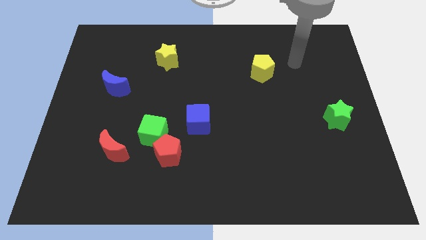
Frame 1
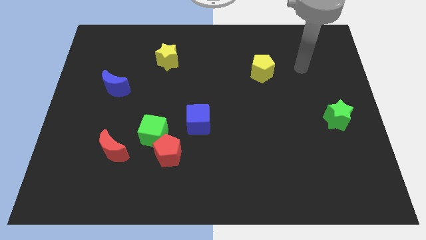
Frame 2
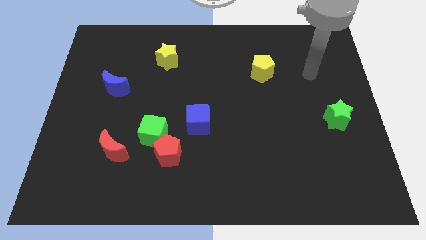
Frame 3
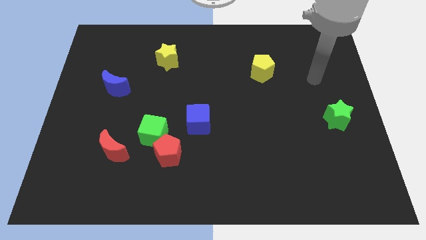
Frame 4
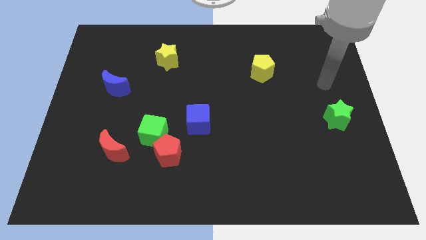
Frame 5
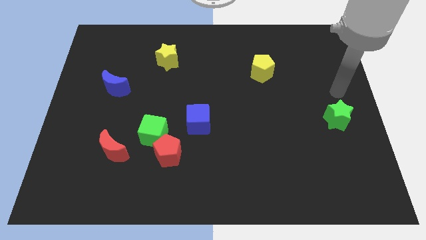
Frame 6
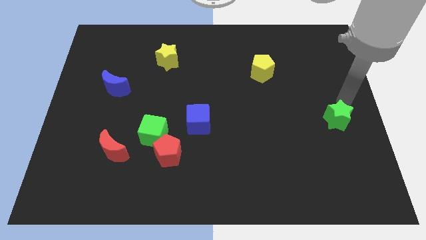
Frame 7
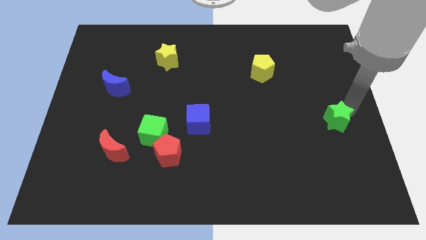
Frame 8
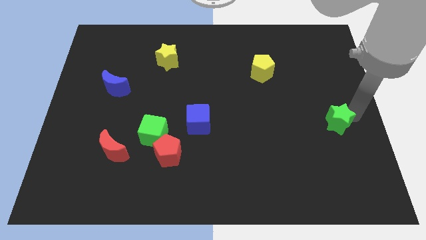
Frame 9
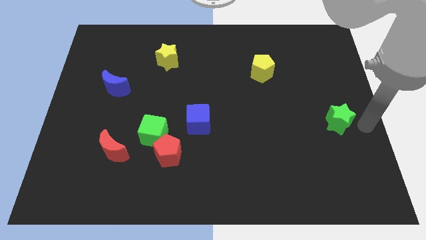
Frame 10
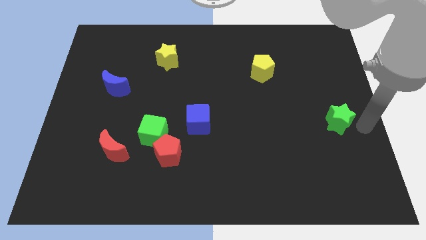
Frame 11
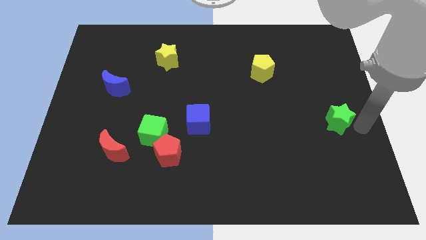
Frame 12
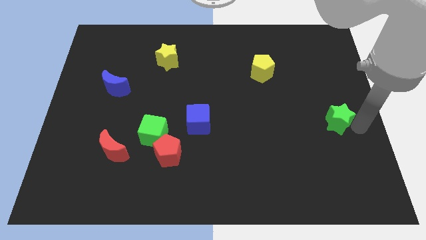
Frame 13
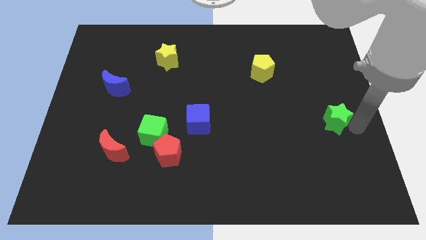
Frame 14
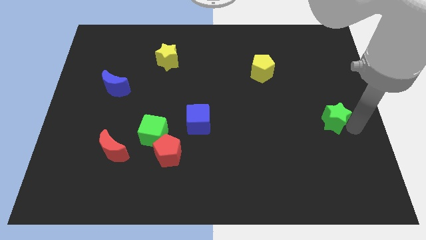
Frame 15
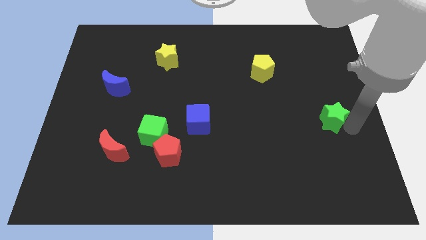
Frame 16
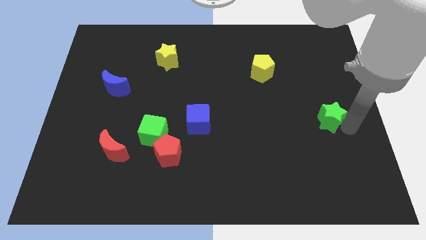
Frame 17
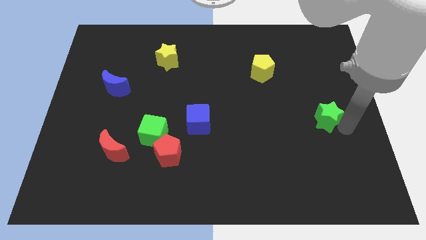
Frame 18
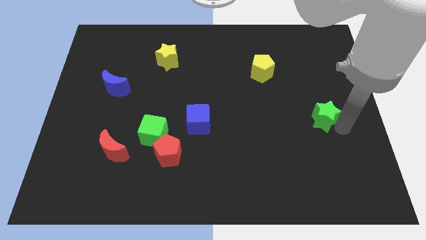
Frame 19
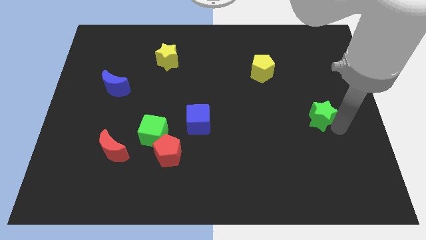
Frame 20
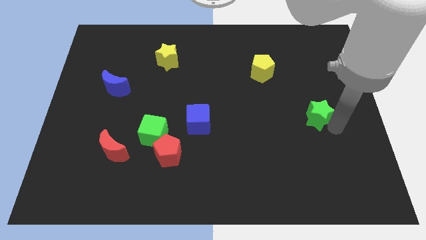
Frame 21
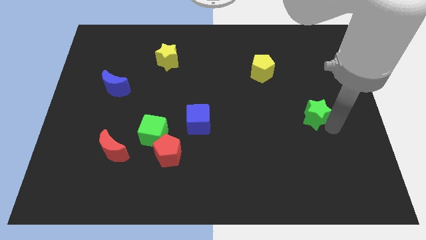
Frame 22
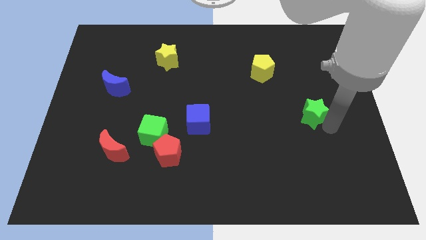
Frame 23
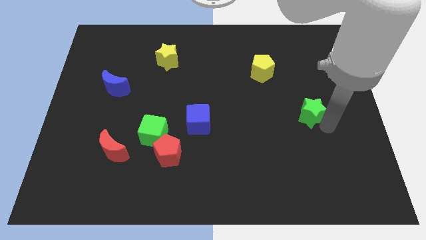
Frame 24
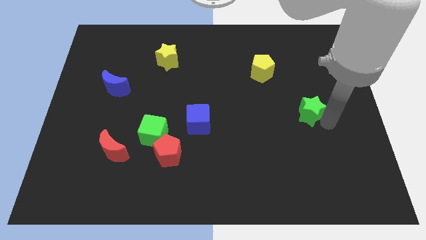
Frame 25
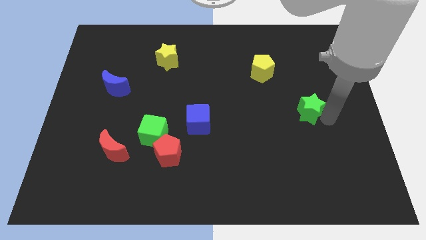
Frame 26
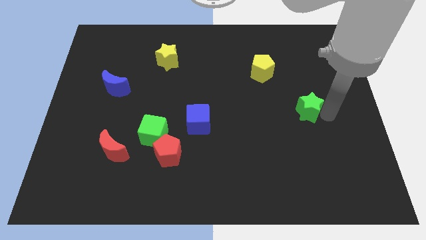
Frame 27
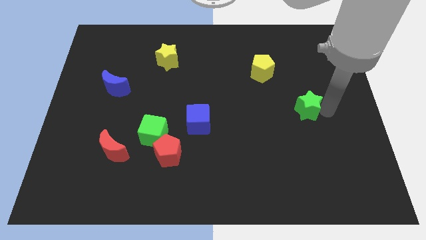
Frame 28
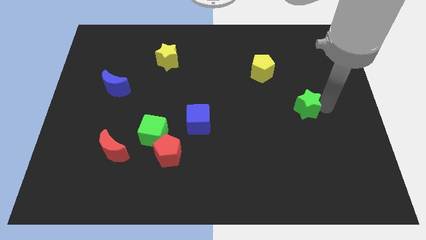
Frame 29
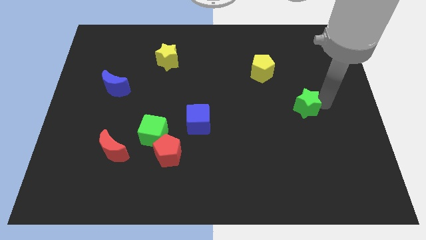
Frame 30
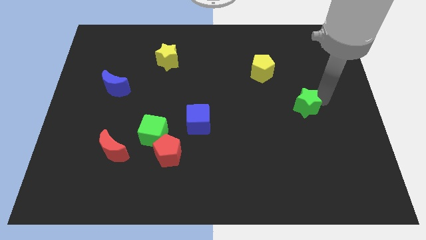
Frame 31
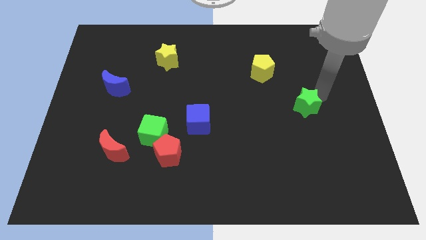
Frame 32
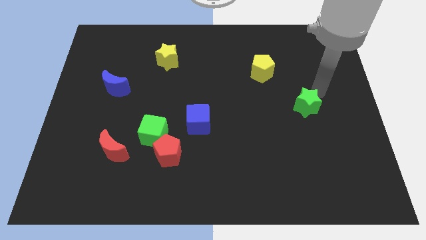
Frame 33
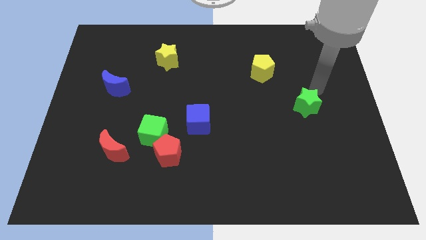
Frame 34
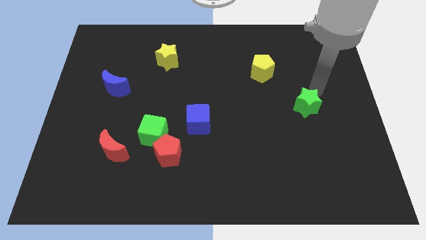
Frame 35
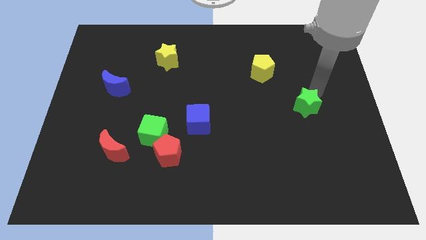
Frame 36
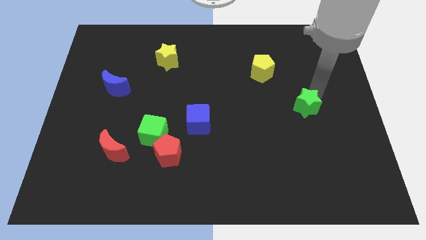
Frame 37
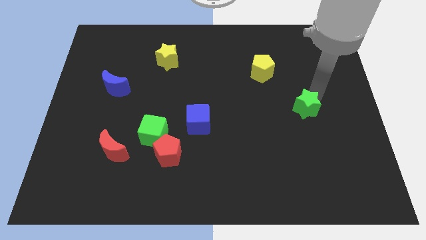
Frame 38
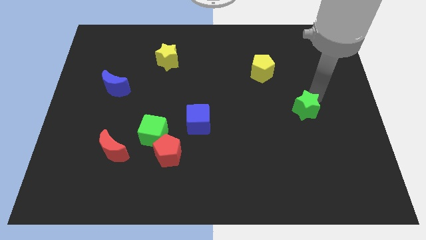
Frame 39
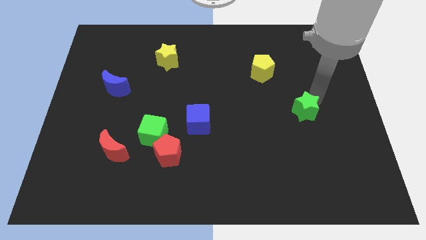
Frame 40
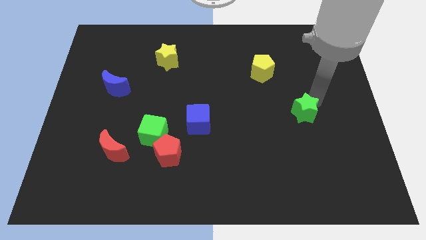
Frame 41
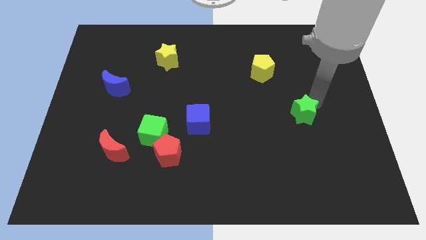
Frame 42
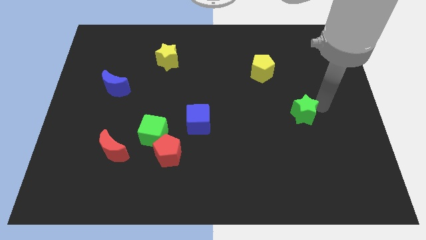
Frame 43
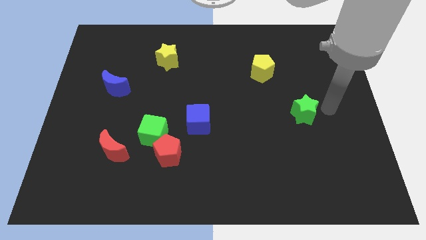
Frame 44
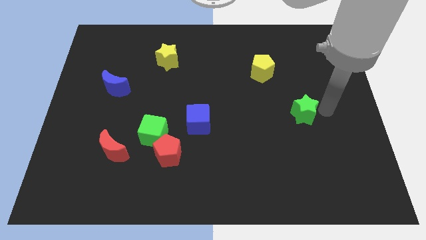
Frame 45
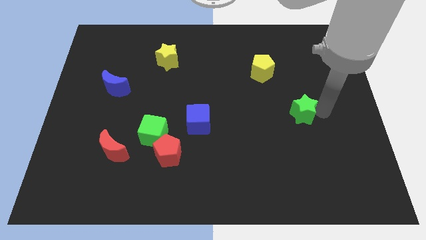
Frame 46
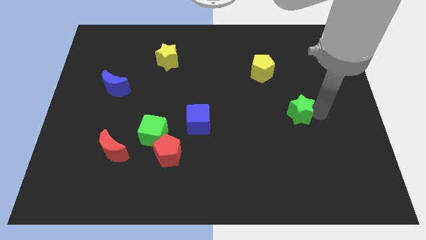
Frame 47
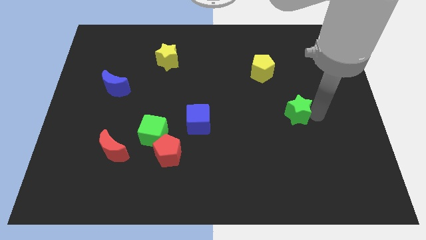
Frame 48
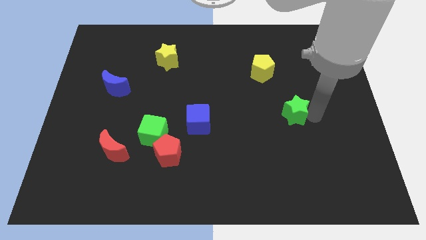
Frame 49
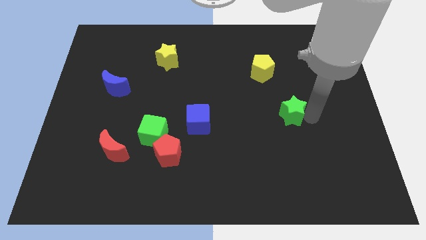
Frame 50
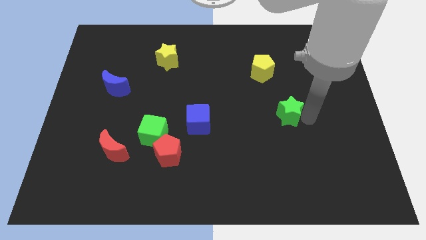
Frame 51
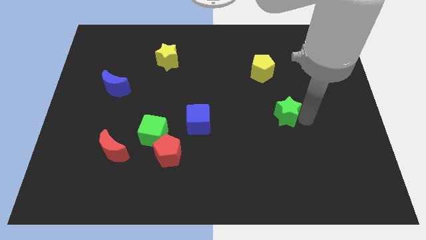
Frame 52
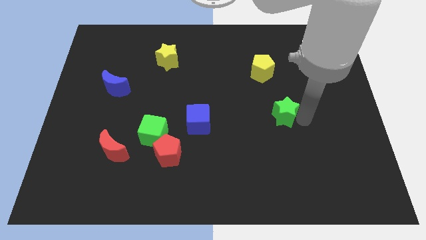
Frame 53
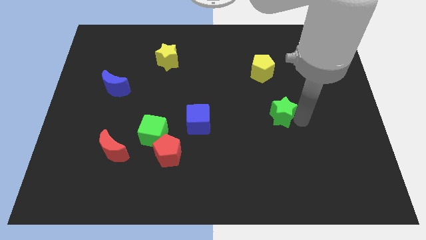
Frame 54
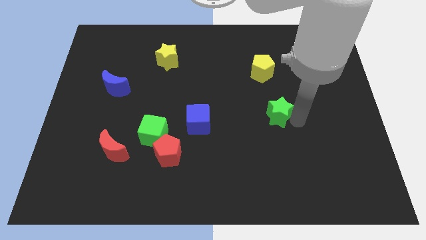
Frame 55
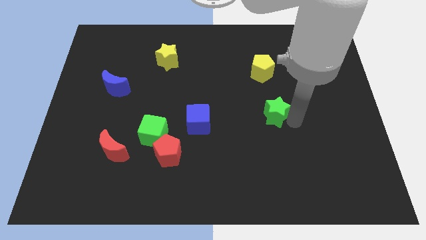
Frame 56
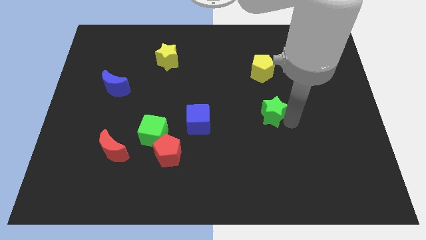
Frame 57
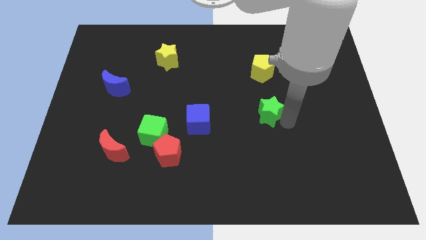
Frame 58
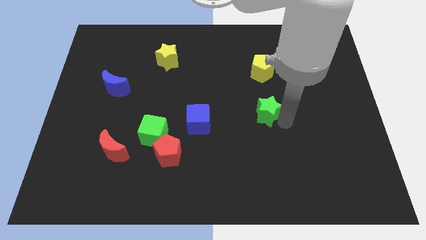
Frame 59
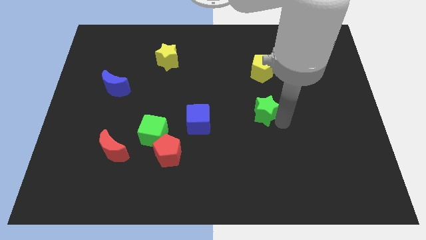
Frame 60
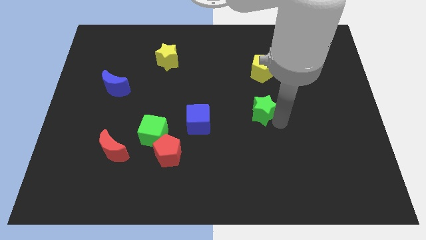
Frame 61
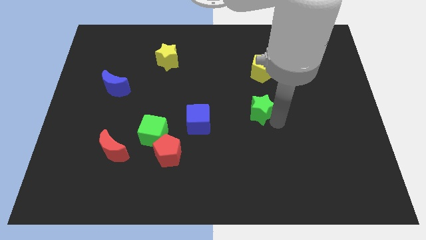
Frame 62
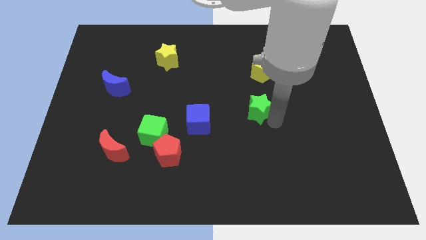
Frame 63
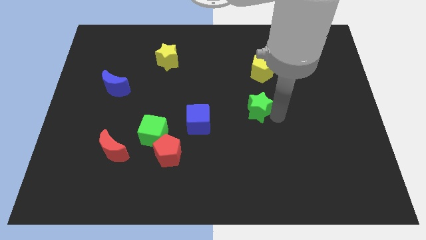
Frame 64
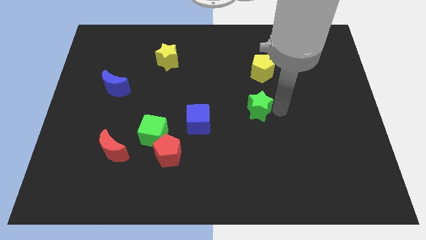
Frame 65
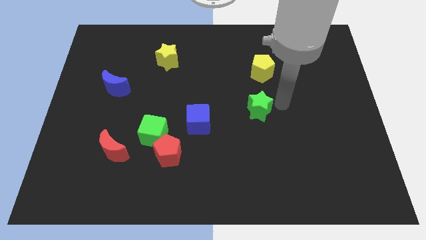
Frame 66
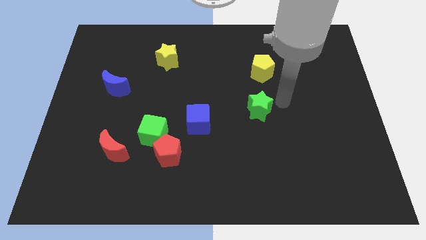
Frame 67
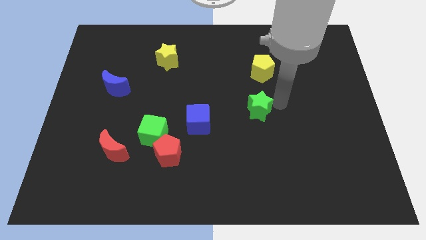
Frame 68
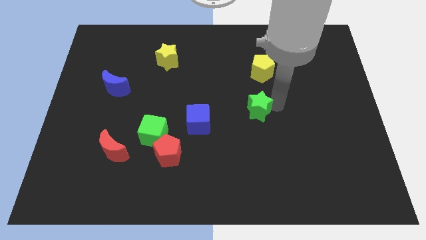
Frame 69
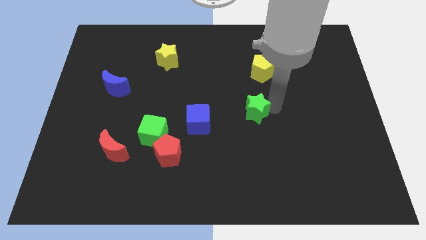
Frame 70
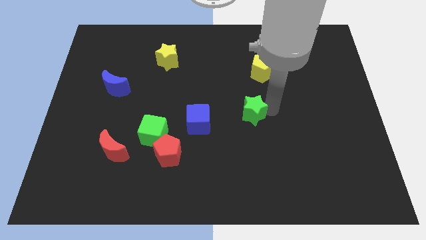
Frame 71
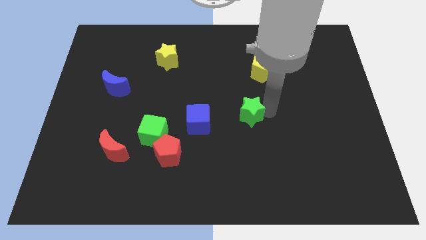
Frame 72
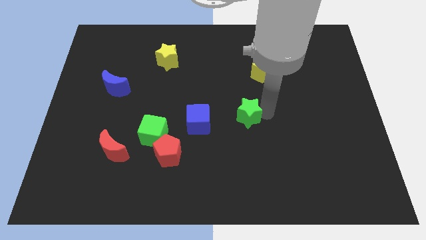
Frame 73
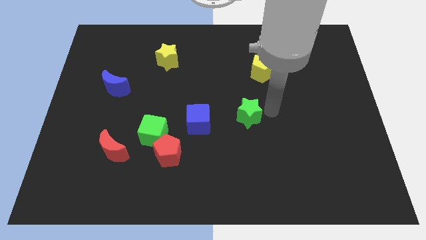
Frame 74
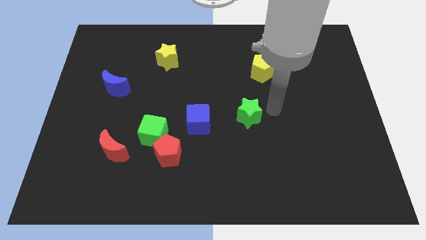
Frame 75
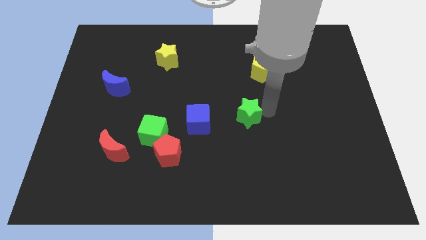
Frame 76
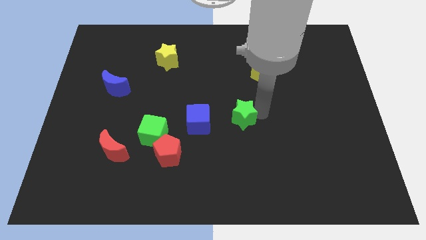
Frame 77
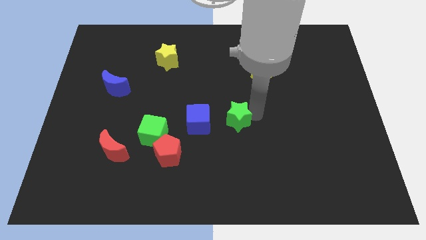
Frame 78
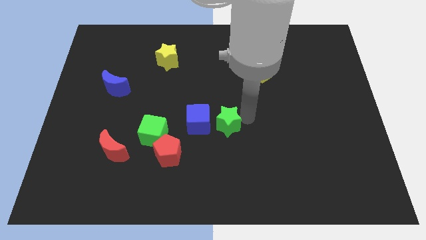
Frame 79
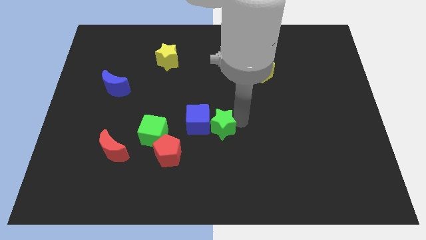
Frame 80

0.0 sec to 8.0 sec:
move the green star towards the blue cube
